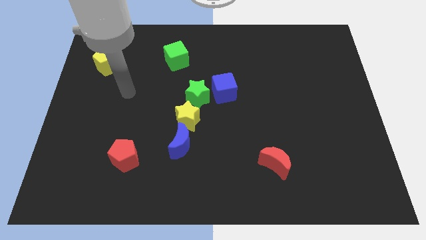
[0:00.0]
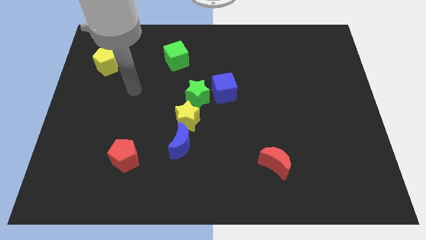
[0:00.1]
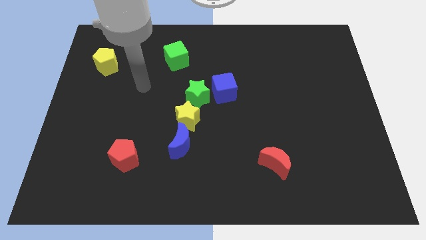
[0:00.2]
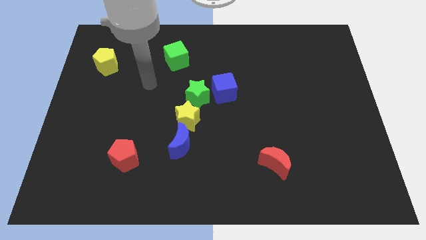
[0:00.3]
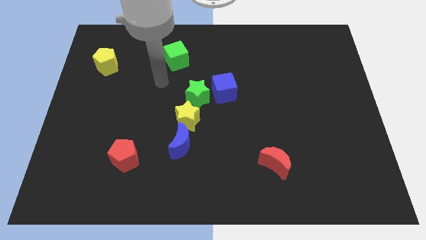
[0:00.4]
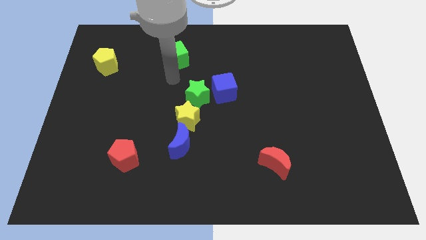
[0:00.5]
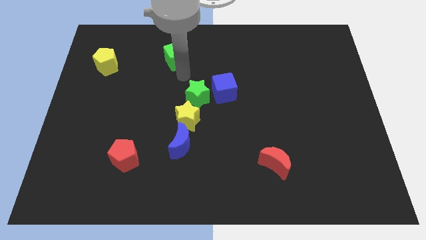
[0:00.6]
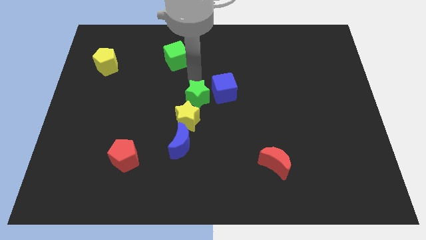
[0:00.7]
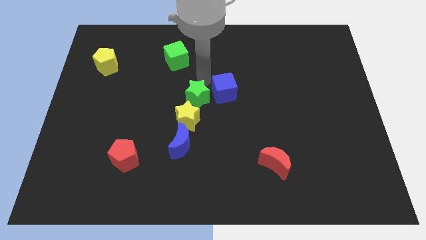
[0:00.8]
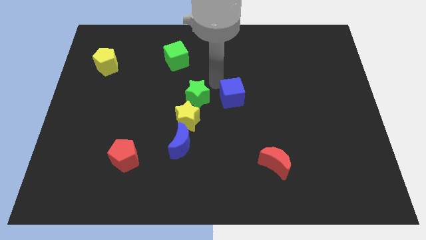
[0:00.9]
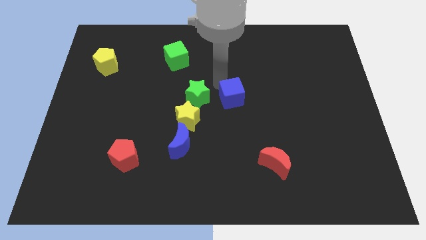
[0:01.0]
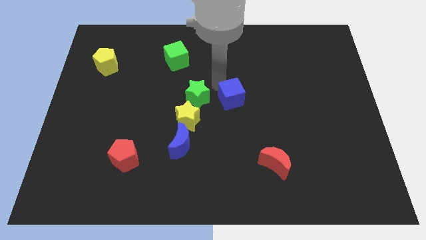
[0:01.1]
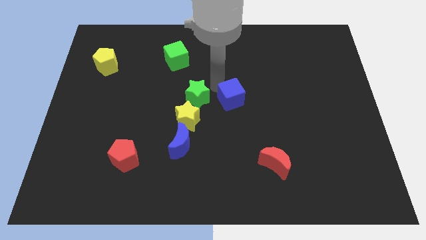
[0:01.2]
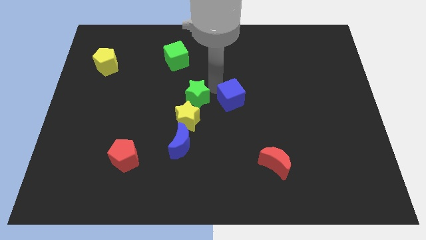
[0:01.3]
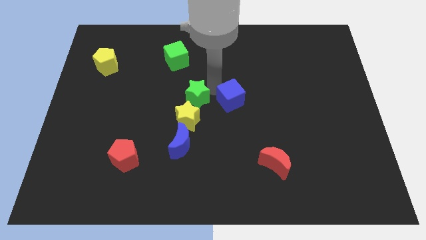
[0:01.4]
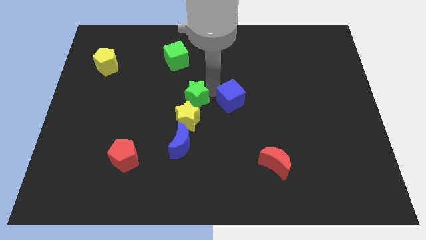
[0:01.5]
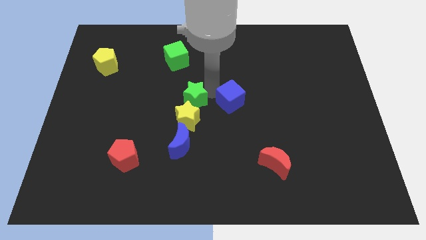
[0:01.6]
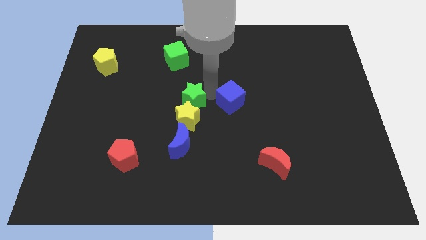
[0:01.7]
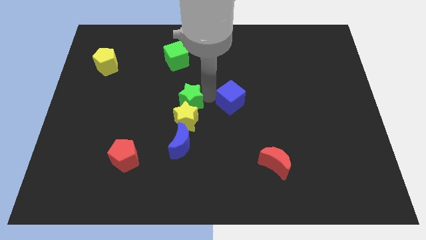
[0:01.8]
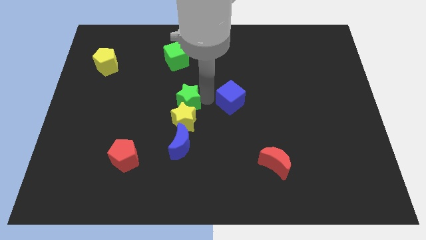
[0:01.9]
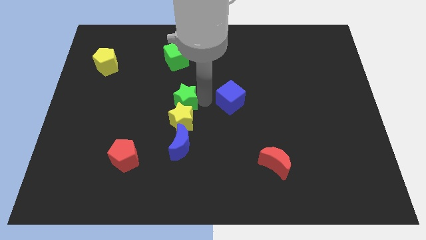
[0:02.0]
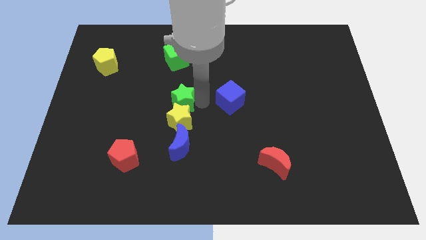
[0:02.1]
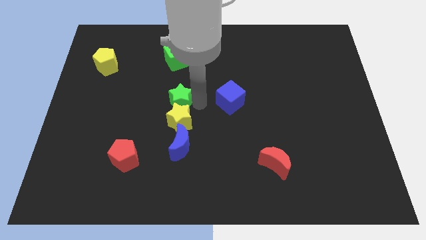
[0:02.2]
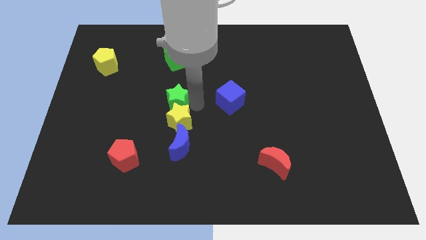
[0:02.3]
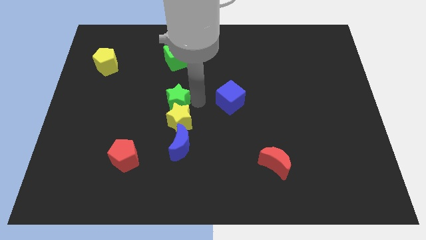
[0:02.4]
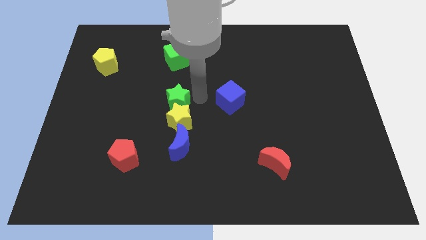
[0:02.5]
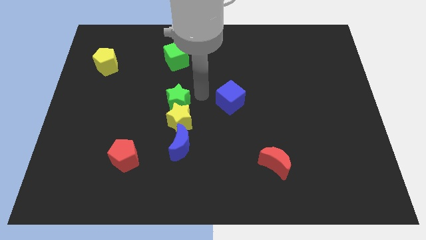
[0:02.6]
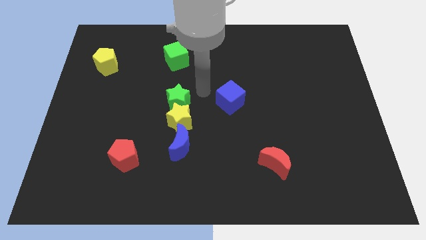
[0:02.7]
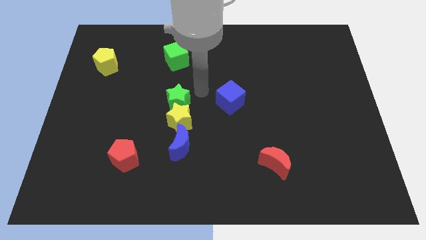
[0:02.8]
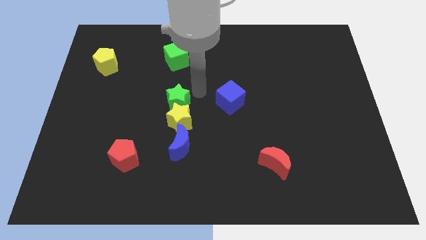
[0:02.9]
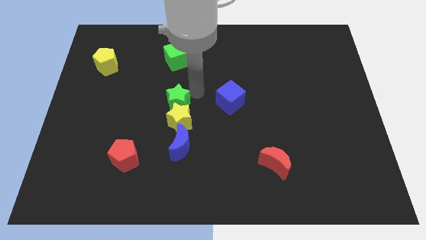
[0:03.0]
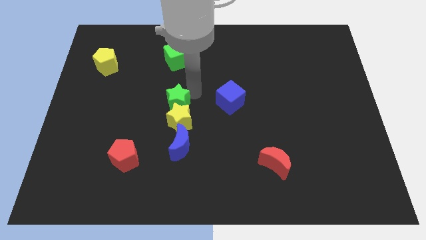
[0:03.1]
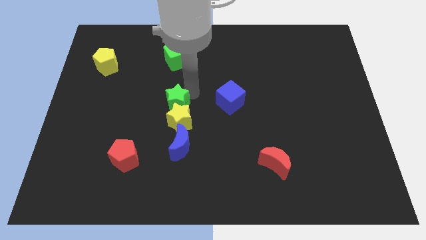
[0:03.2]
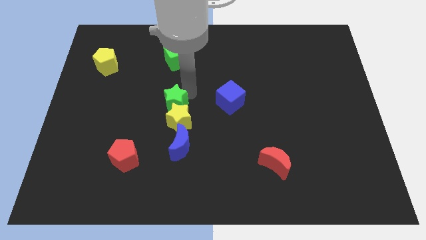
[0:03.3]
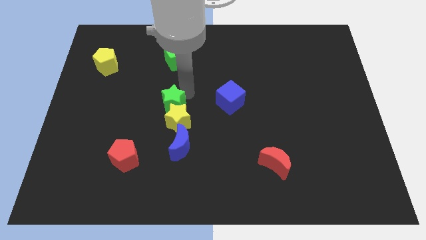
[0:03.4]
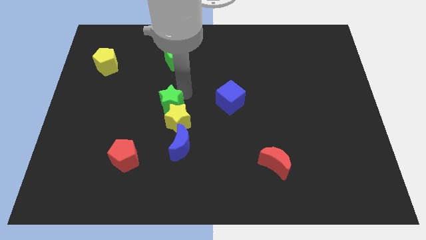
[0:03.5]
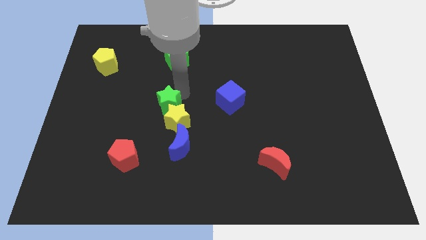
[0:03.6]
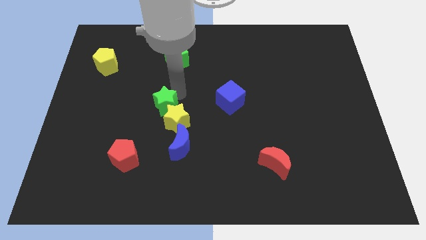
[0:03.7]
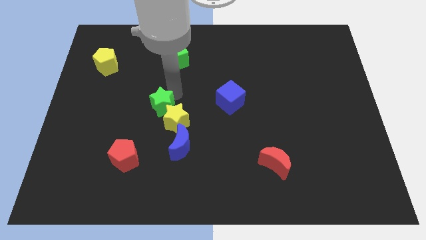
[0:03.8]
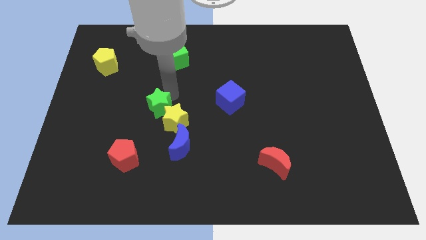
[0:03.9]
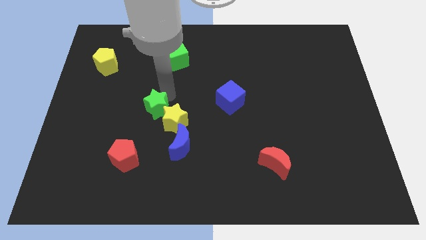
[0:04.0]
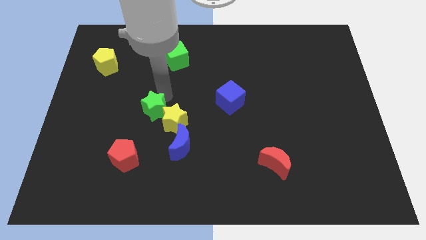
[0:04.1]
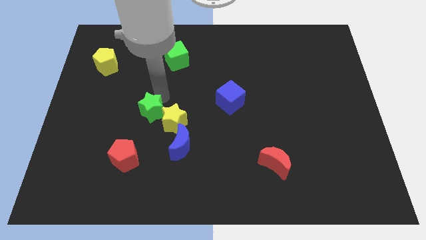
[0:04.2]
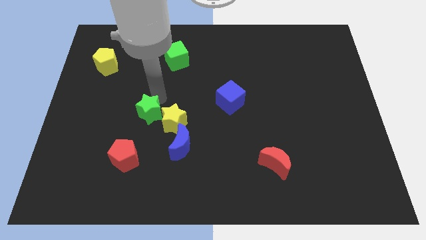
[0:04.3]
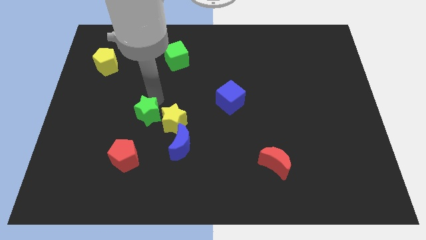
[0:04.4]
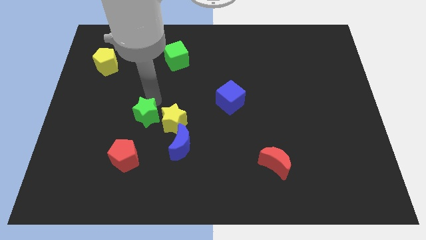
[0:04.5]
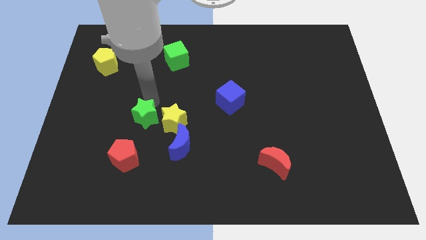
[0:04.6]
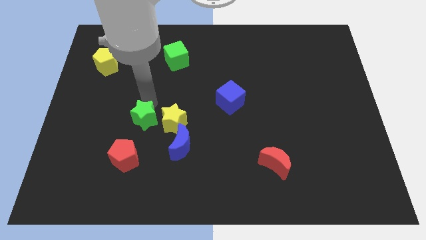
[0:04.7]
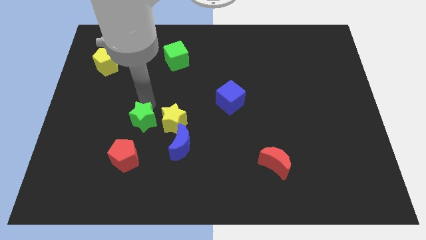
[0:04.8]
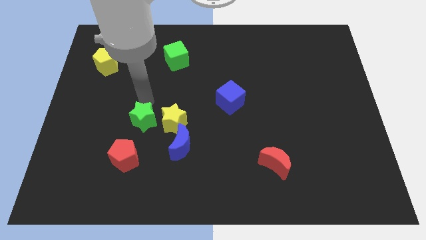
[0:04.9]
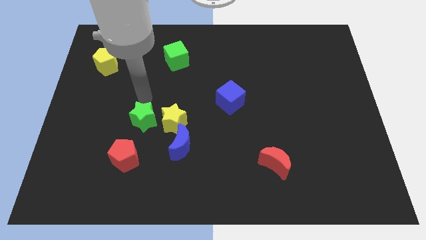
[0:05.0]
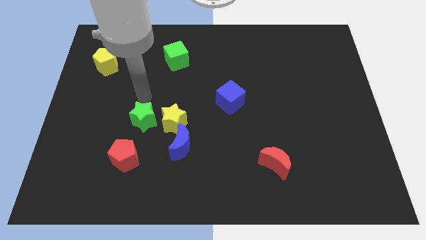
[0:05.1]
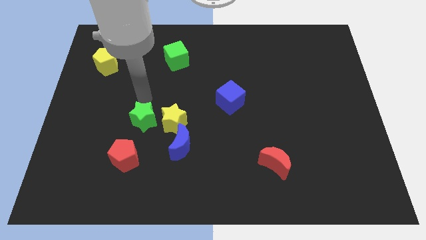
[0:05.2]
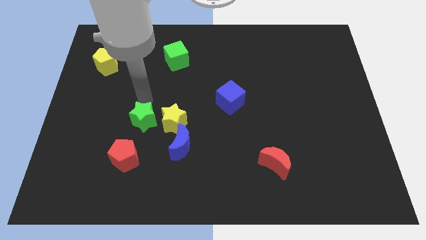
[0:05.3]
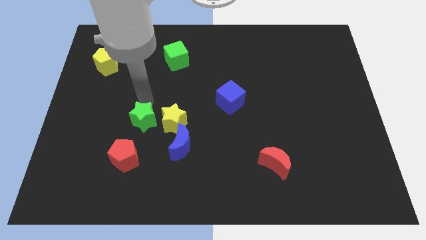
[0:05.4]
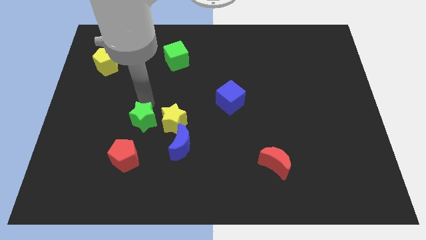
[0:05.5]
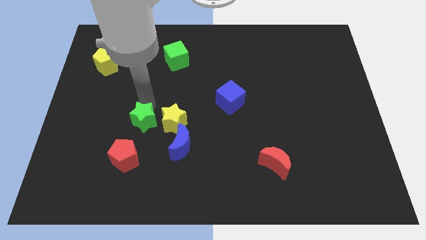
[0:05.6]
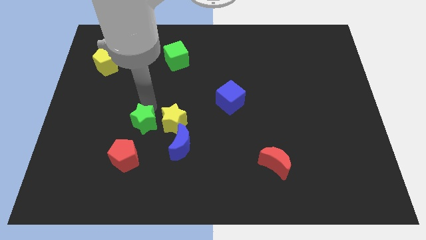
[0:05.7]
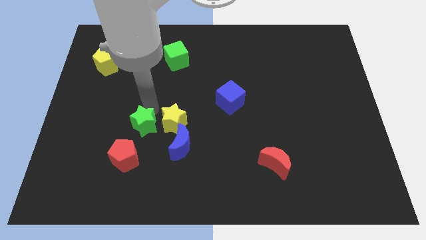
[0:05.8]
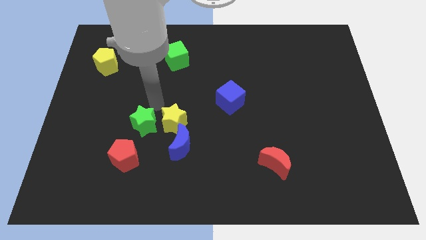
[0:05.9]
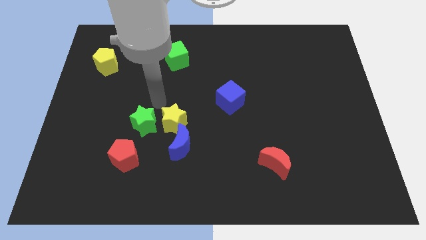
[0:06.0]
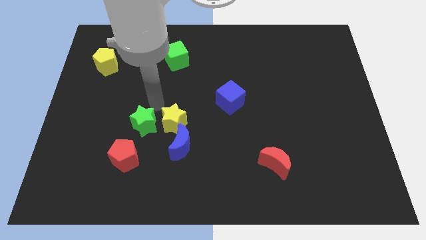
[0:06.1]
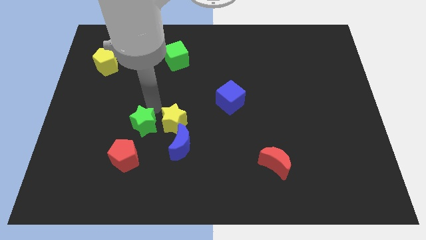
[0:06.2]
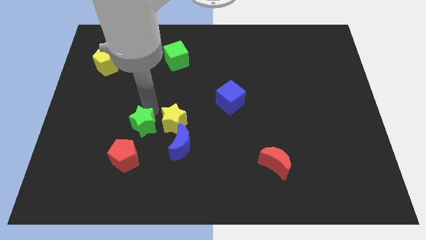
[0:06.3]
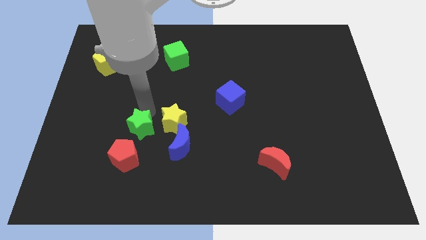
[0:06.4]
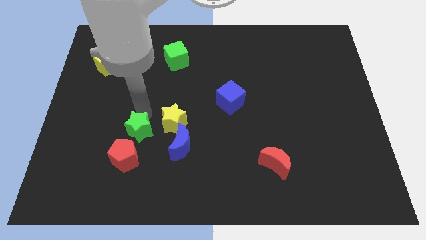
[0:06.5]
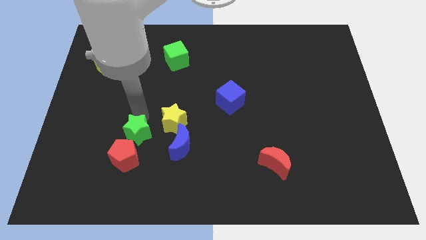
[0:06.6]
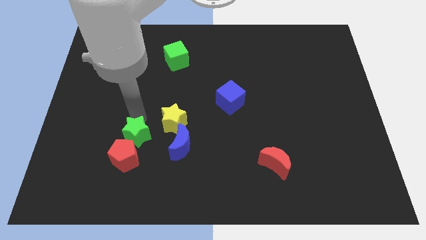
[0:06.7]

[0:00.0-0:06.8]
push the green star close to the red pentagon

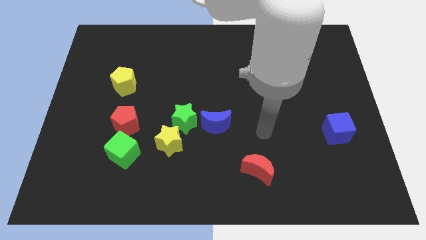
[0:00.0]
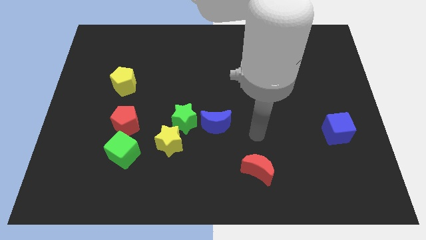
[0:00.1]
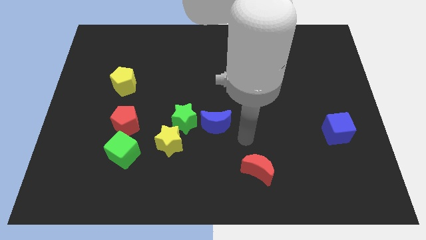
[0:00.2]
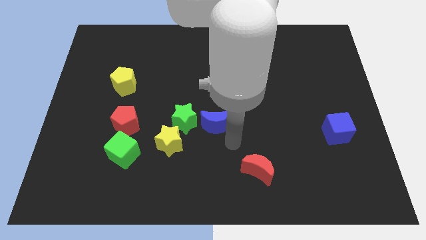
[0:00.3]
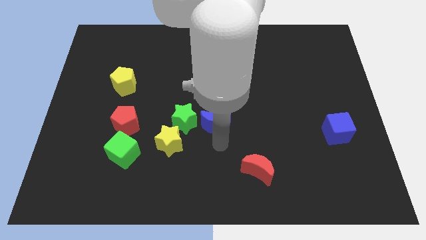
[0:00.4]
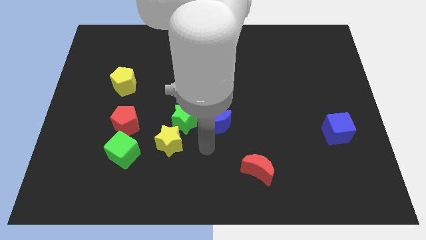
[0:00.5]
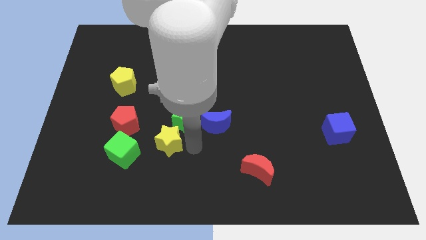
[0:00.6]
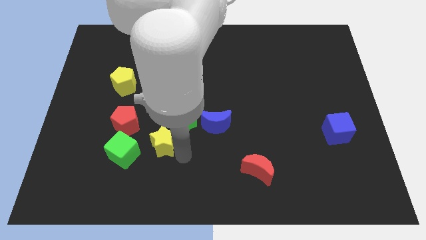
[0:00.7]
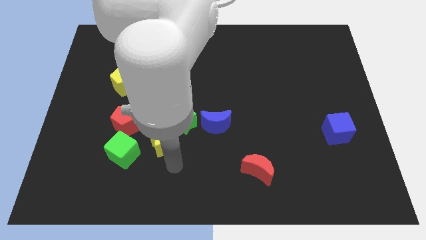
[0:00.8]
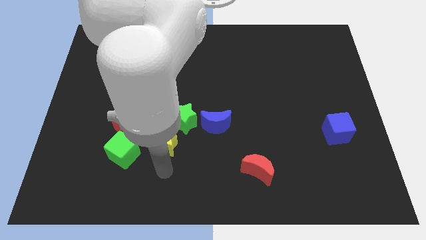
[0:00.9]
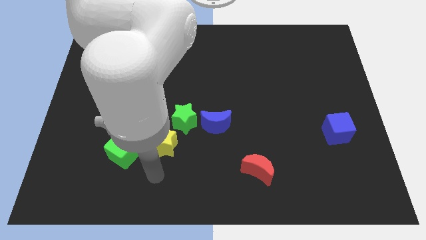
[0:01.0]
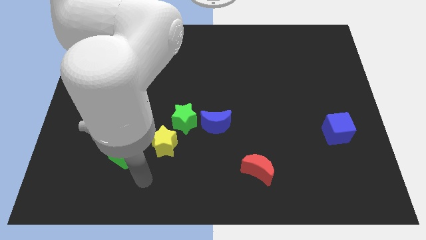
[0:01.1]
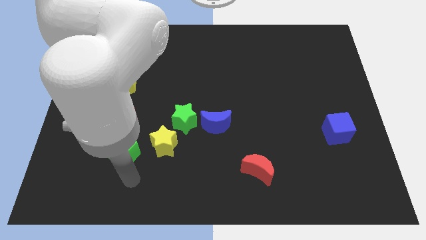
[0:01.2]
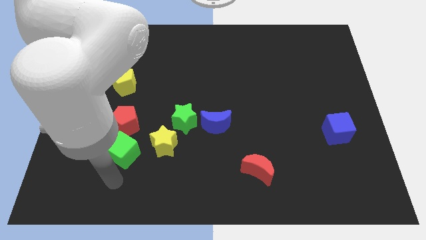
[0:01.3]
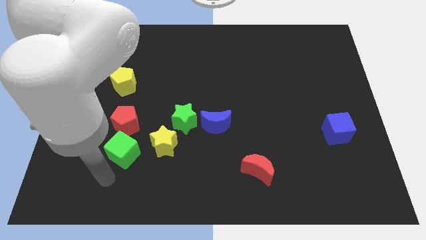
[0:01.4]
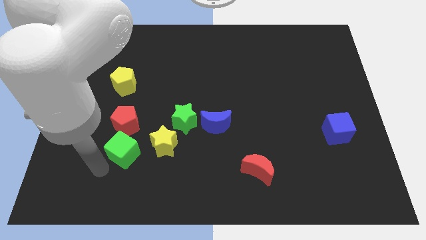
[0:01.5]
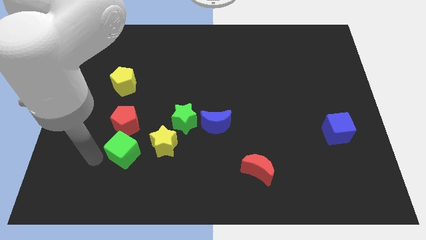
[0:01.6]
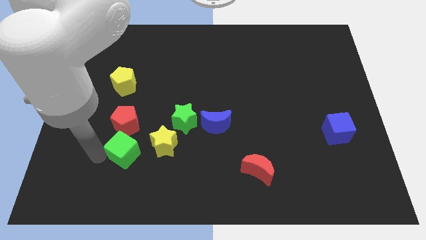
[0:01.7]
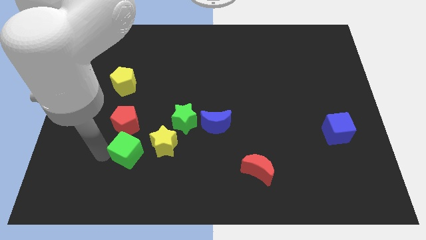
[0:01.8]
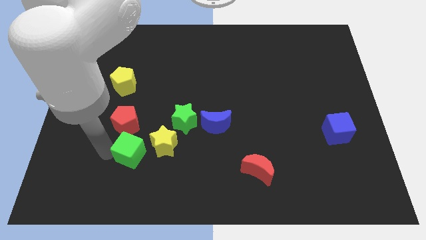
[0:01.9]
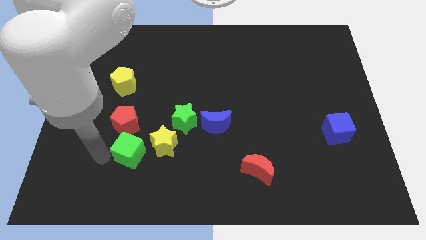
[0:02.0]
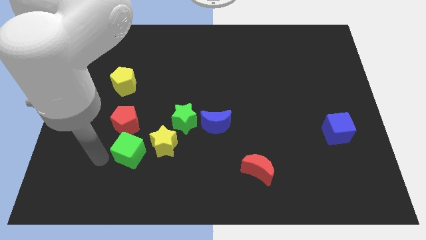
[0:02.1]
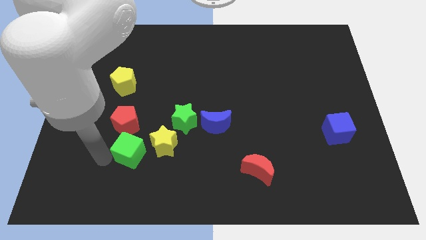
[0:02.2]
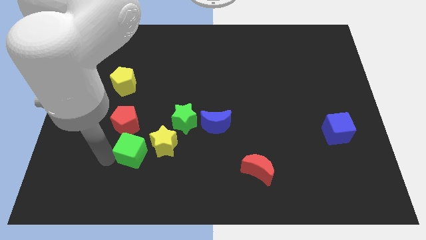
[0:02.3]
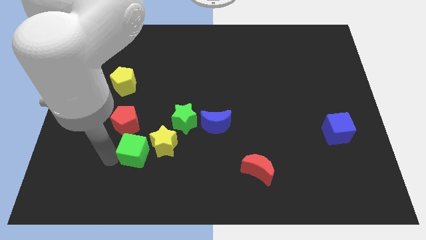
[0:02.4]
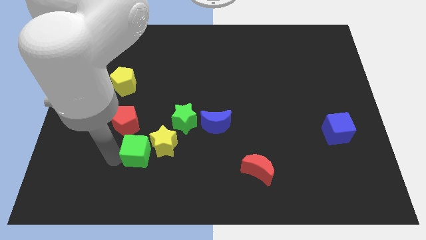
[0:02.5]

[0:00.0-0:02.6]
slide the green cube towards the yellow star
